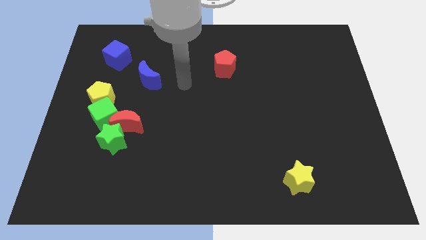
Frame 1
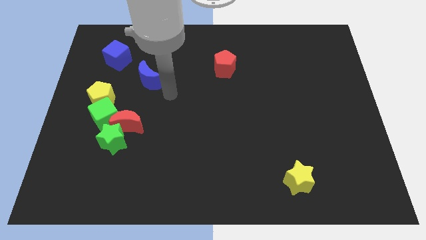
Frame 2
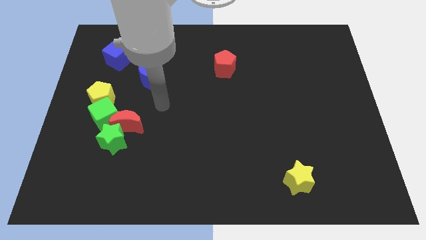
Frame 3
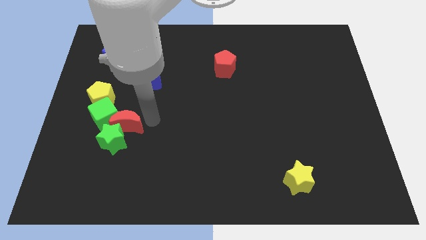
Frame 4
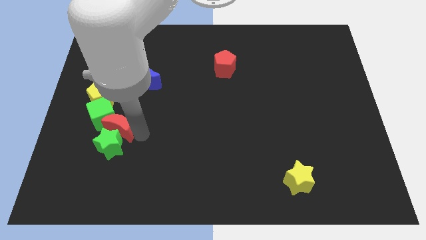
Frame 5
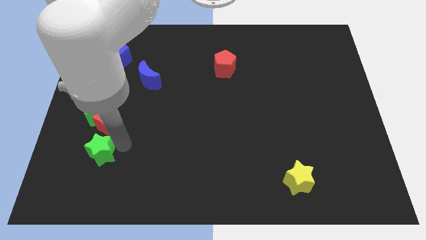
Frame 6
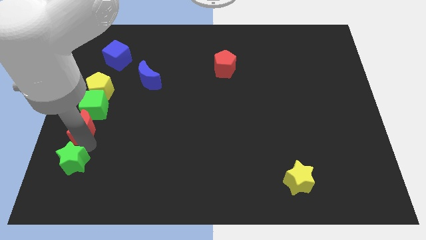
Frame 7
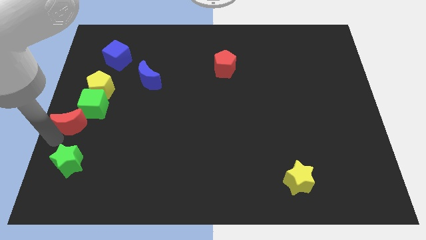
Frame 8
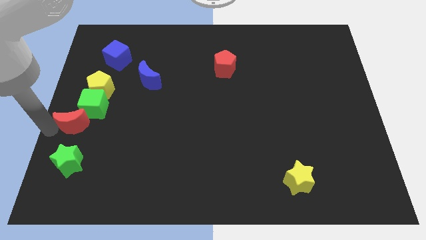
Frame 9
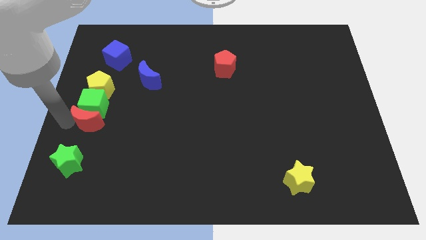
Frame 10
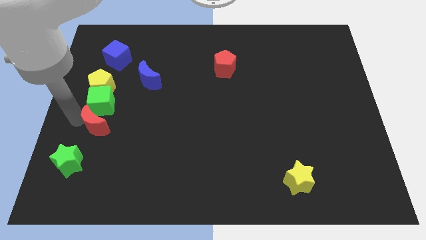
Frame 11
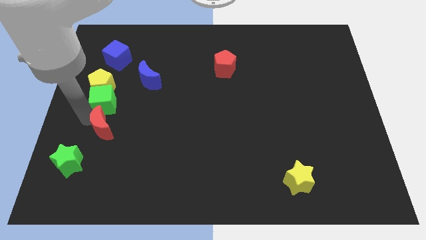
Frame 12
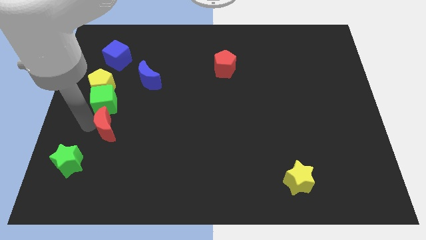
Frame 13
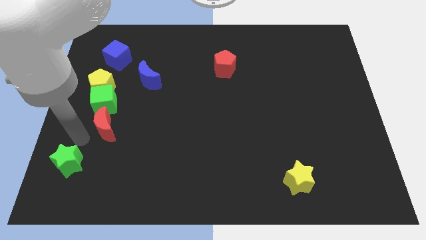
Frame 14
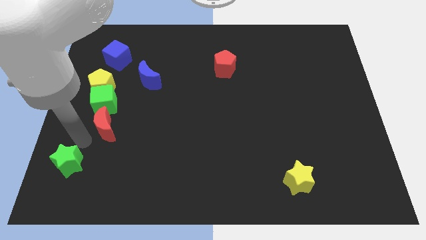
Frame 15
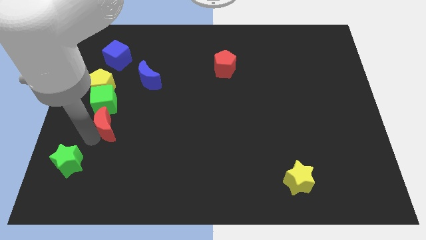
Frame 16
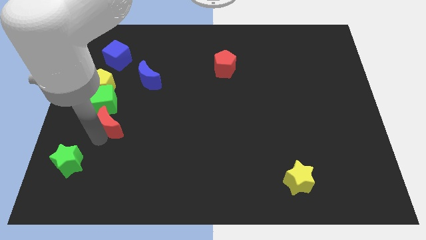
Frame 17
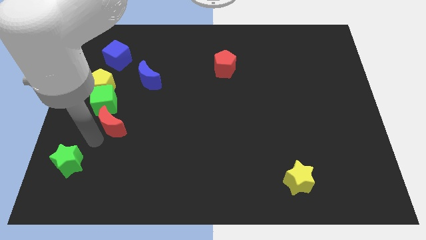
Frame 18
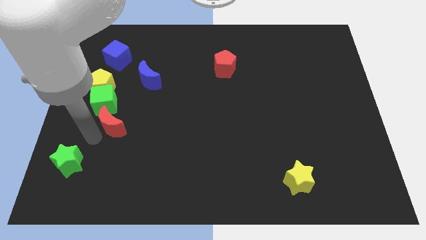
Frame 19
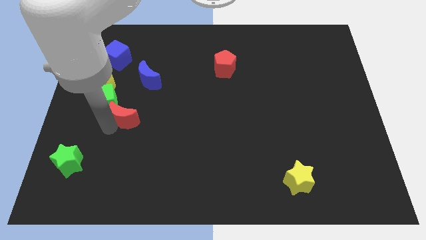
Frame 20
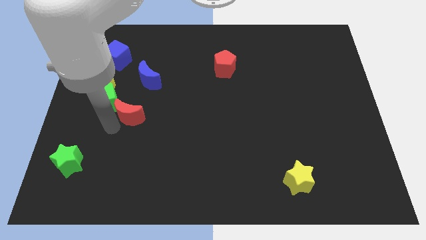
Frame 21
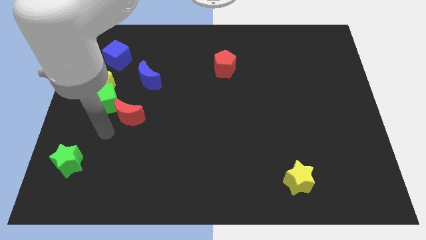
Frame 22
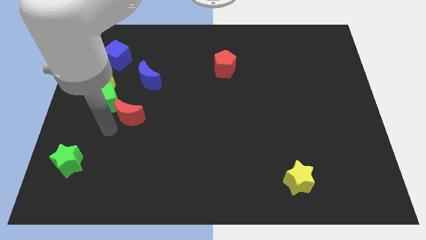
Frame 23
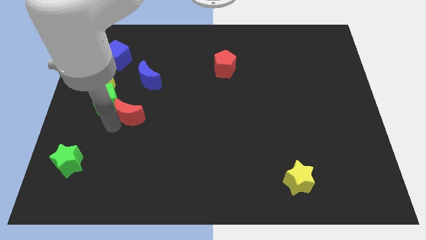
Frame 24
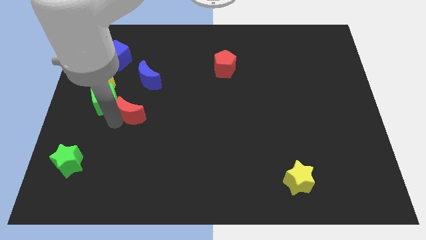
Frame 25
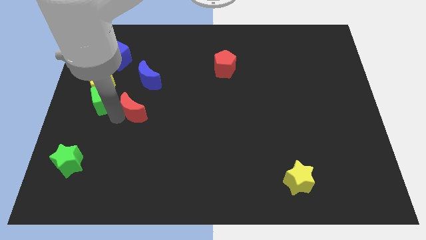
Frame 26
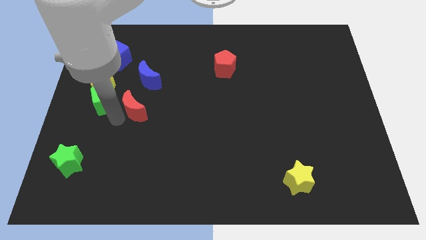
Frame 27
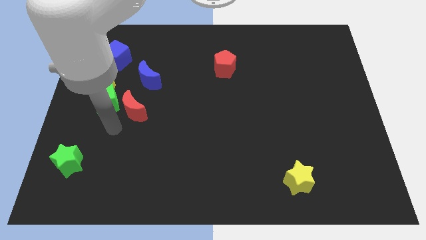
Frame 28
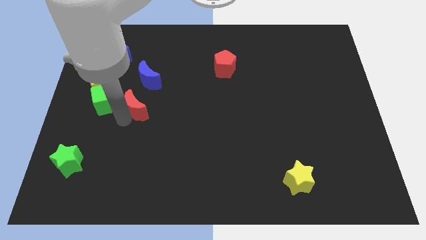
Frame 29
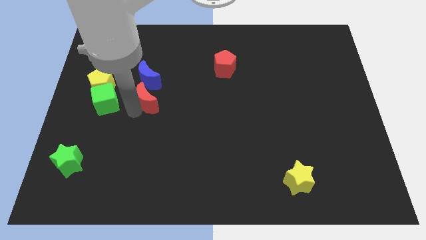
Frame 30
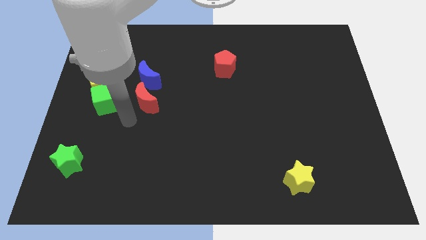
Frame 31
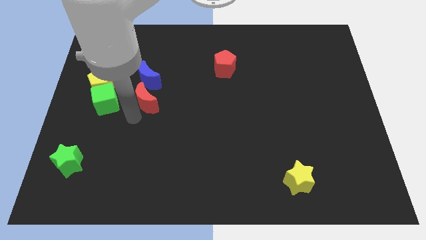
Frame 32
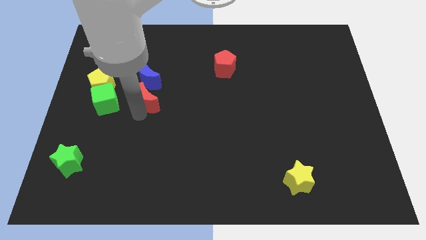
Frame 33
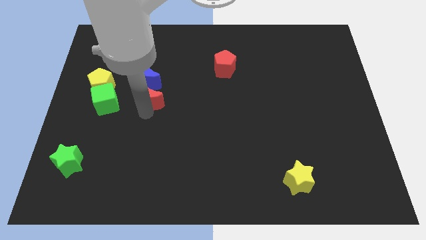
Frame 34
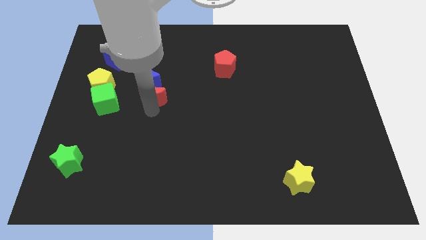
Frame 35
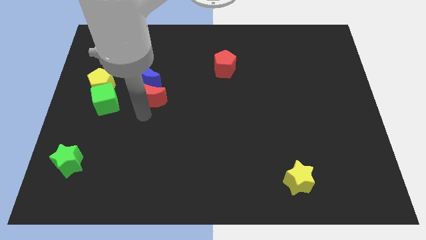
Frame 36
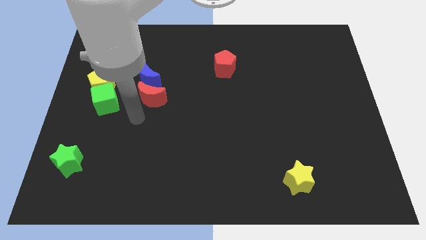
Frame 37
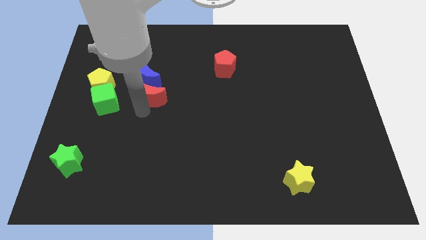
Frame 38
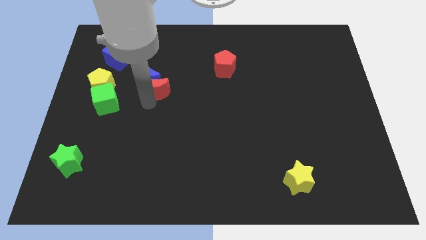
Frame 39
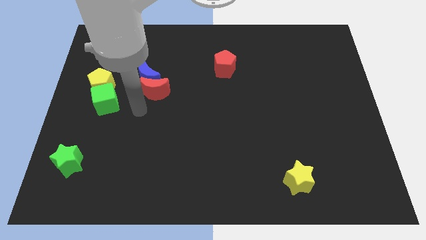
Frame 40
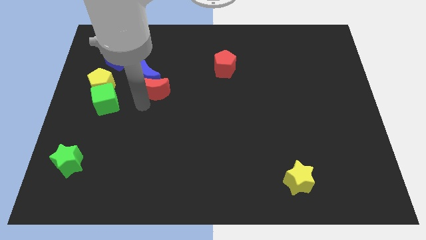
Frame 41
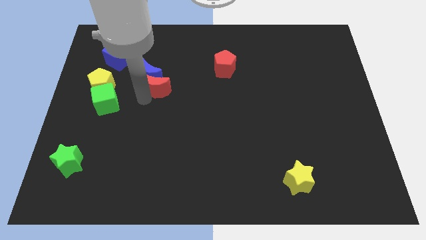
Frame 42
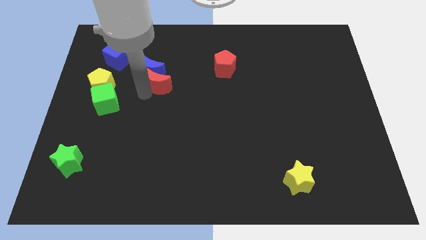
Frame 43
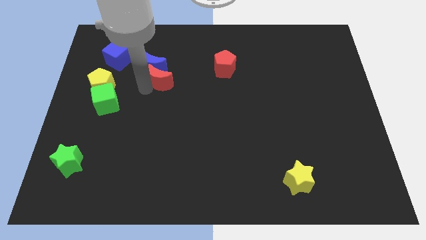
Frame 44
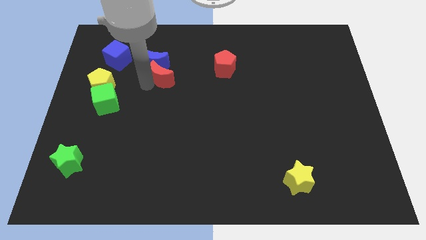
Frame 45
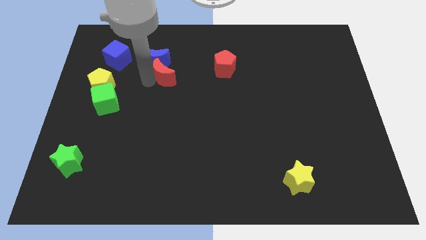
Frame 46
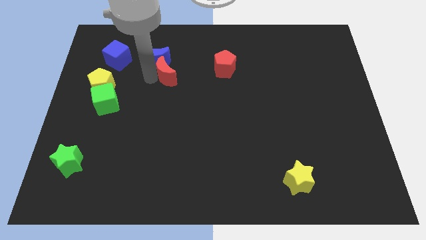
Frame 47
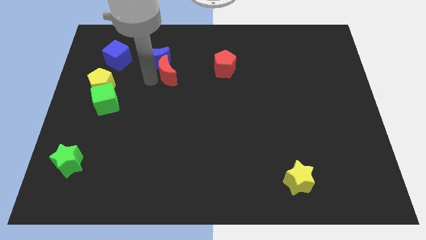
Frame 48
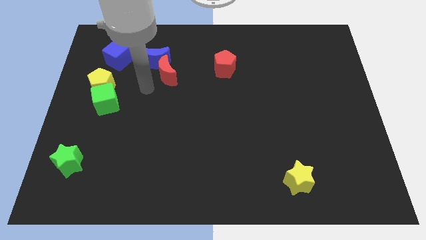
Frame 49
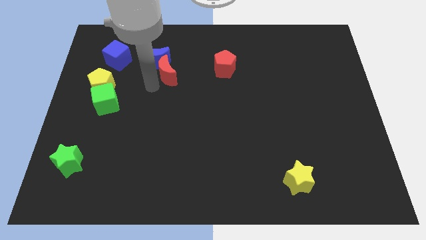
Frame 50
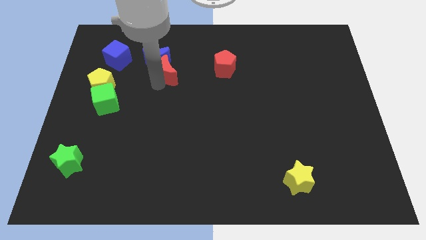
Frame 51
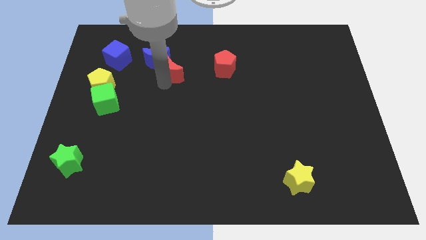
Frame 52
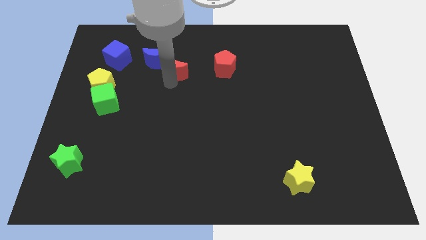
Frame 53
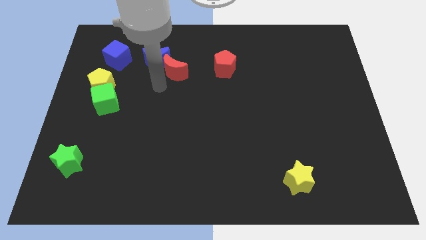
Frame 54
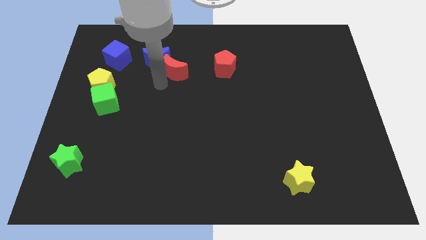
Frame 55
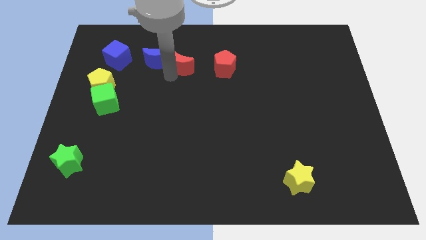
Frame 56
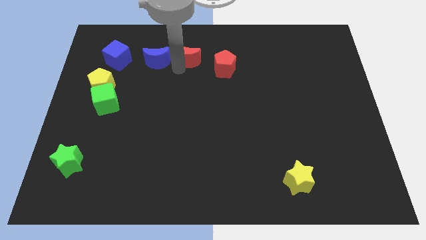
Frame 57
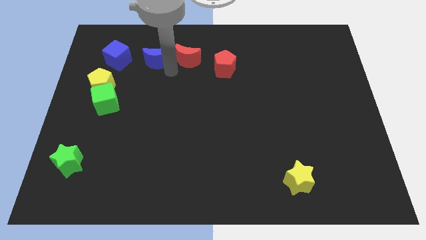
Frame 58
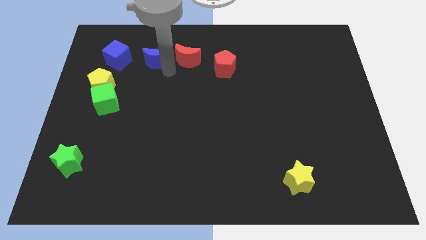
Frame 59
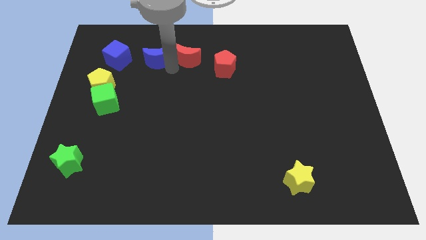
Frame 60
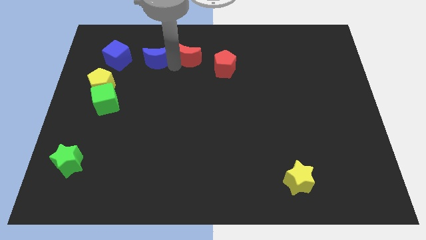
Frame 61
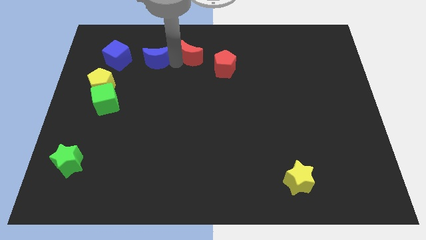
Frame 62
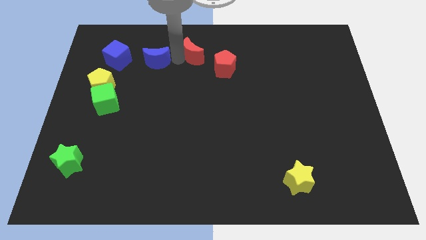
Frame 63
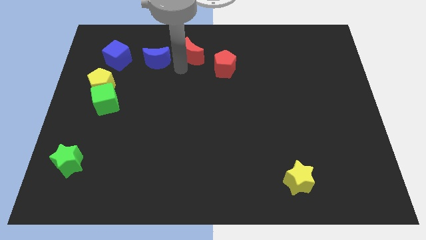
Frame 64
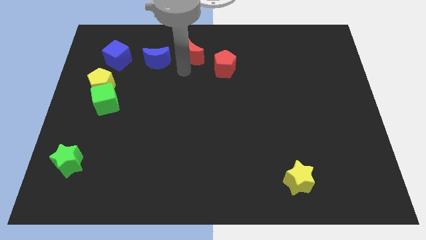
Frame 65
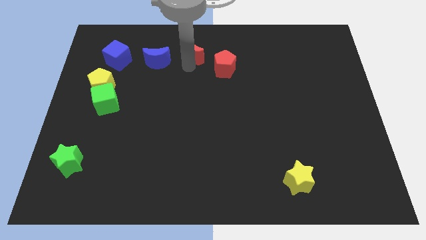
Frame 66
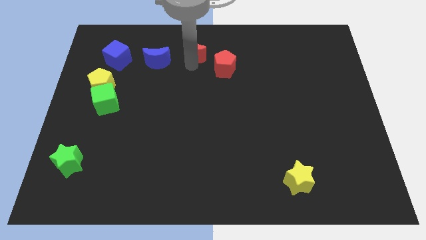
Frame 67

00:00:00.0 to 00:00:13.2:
slide the red moon to the top side
